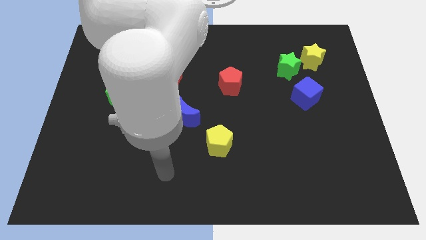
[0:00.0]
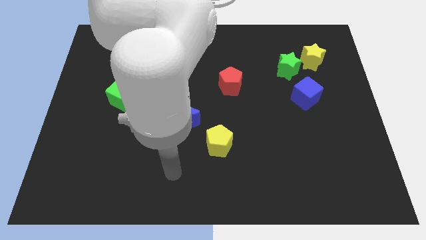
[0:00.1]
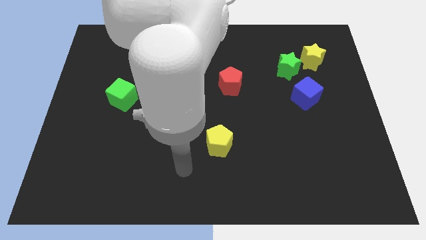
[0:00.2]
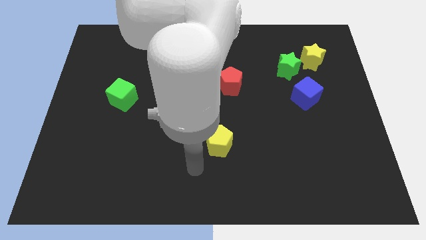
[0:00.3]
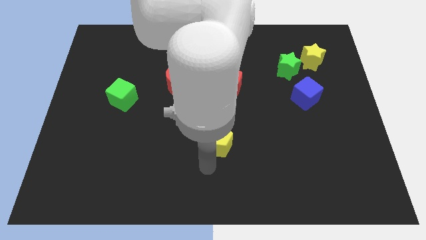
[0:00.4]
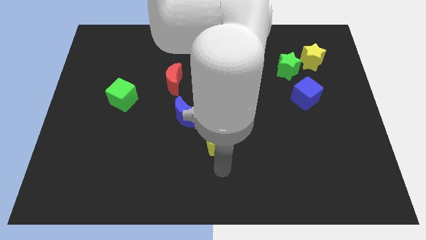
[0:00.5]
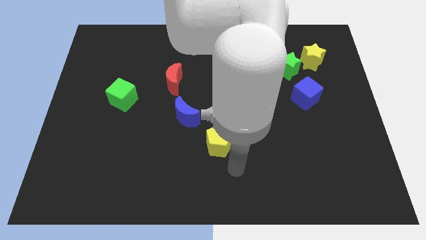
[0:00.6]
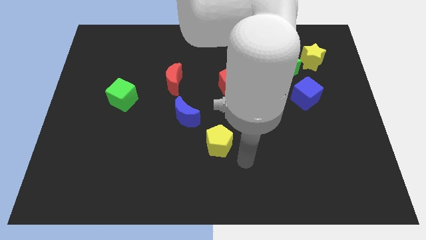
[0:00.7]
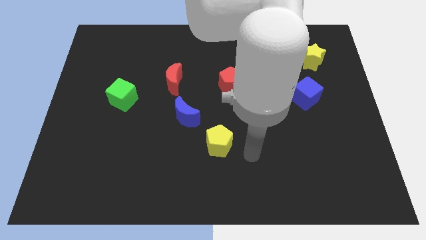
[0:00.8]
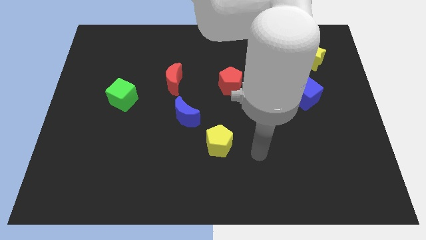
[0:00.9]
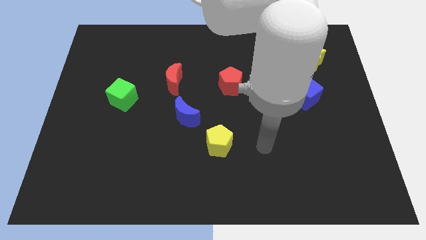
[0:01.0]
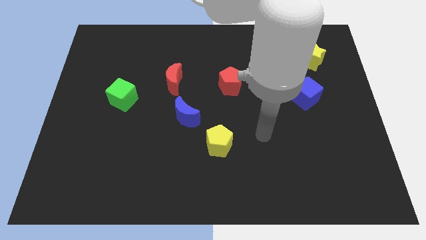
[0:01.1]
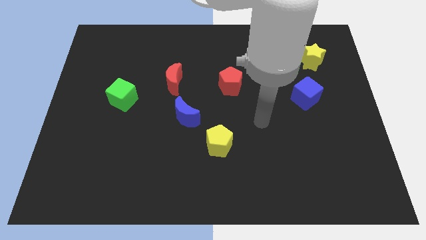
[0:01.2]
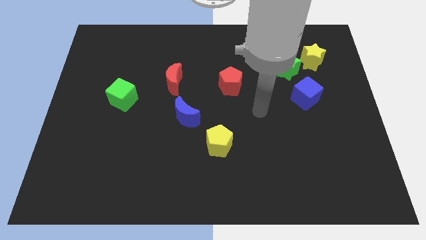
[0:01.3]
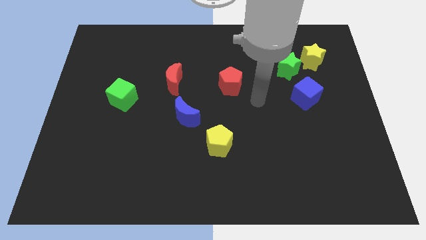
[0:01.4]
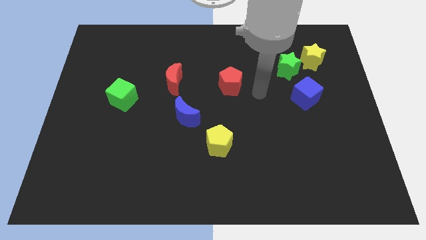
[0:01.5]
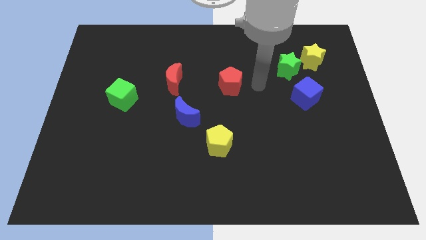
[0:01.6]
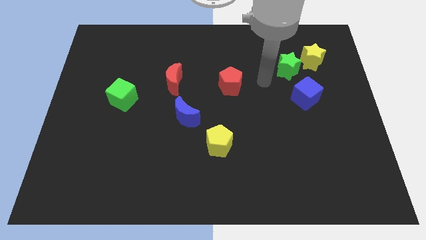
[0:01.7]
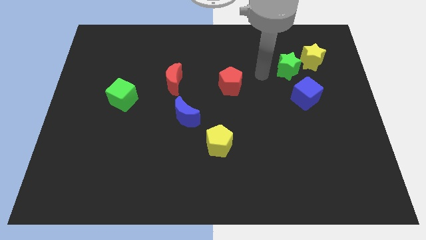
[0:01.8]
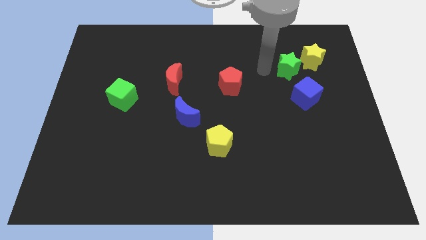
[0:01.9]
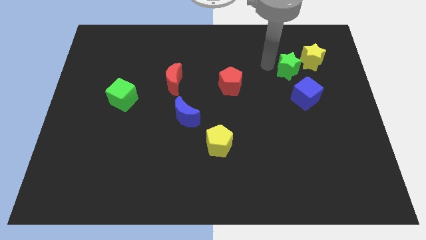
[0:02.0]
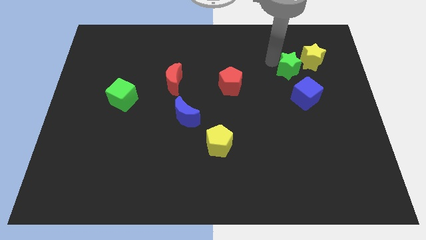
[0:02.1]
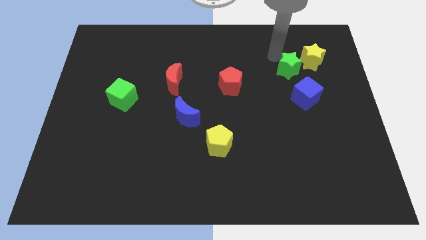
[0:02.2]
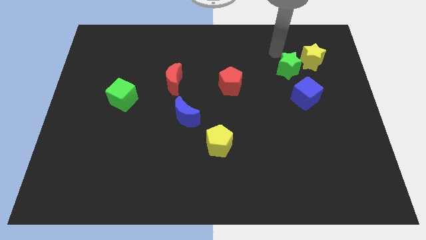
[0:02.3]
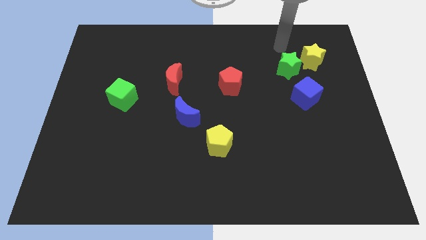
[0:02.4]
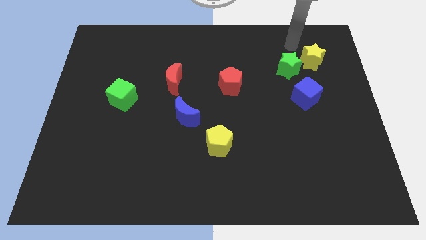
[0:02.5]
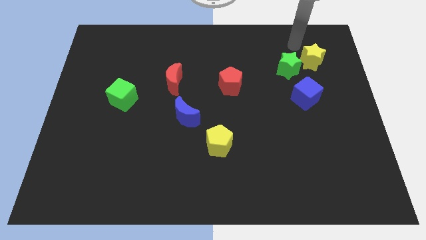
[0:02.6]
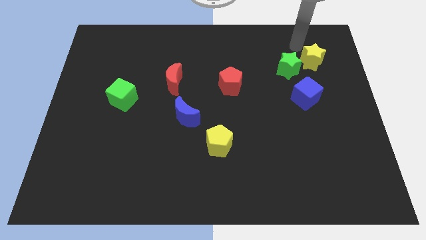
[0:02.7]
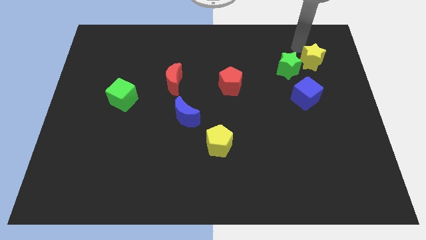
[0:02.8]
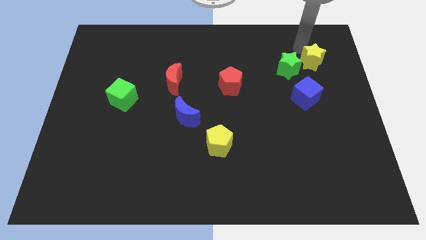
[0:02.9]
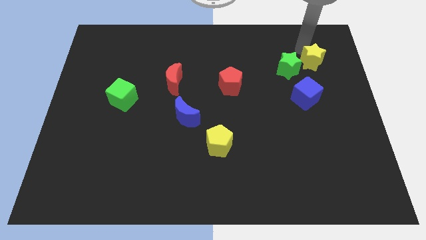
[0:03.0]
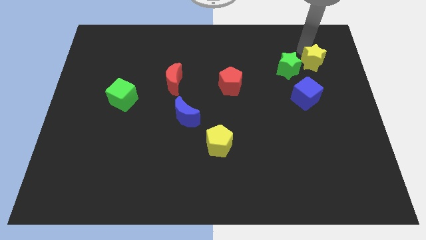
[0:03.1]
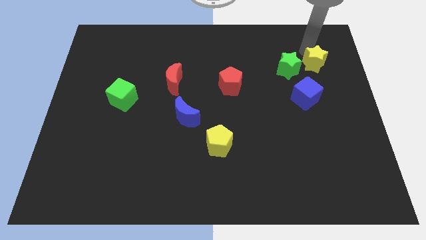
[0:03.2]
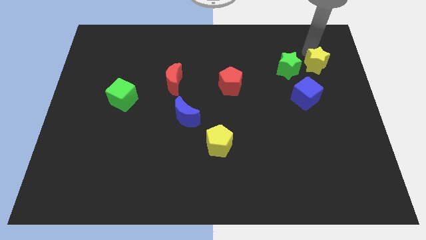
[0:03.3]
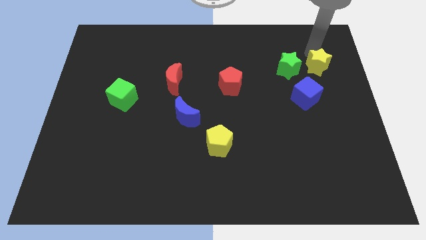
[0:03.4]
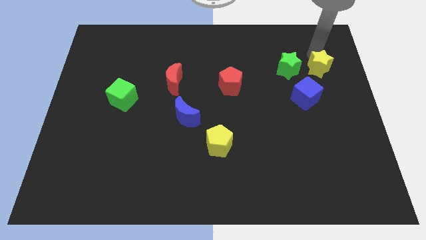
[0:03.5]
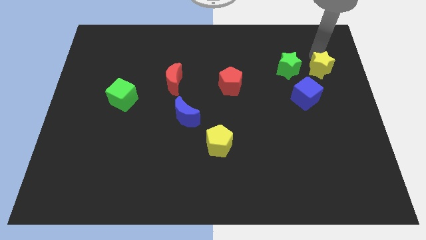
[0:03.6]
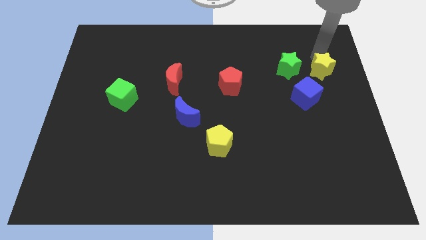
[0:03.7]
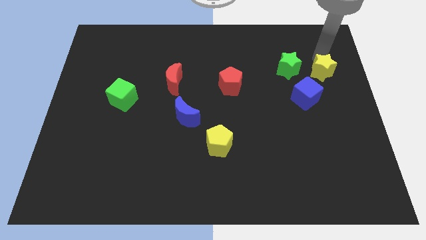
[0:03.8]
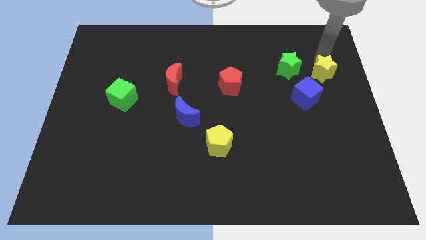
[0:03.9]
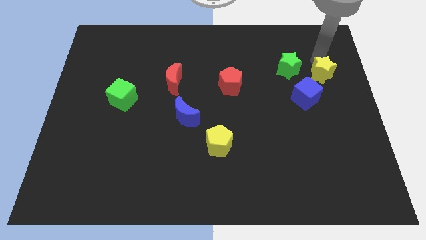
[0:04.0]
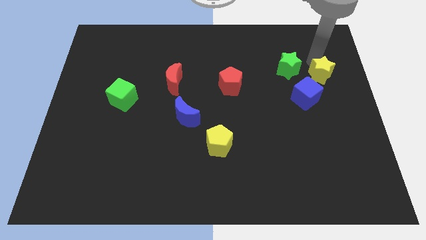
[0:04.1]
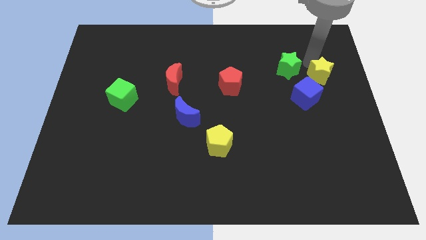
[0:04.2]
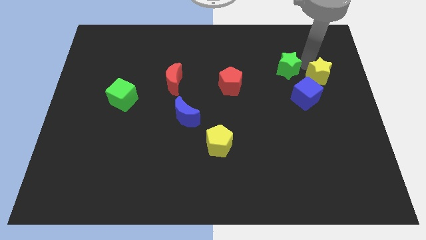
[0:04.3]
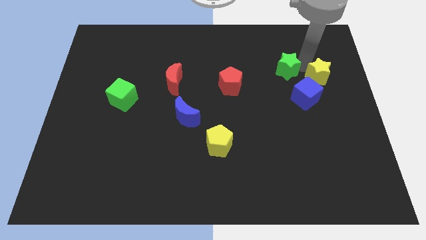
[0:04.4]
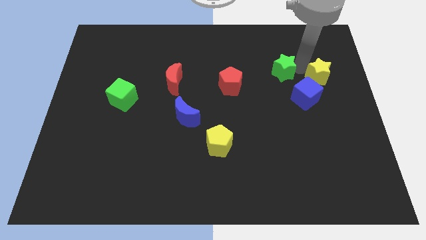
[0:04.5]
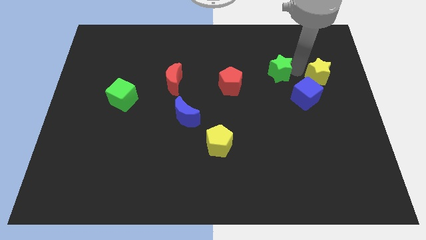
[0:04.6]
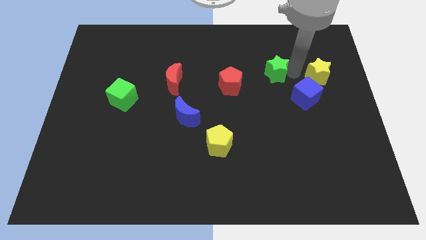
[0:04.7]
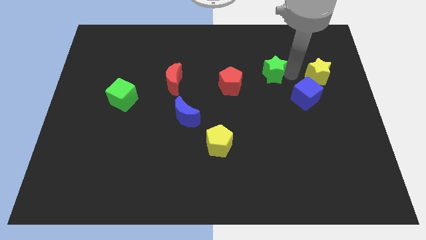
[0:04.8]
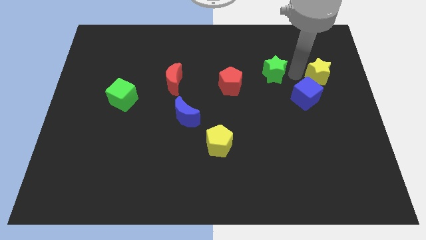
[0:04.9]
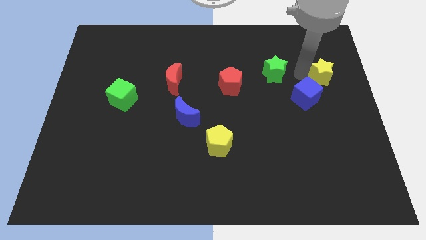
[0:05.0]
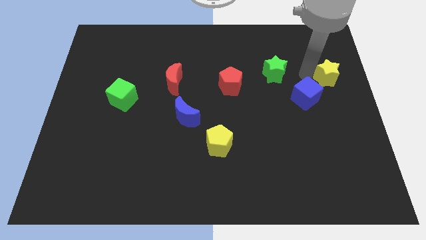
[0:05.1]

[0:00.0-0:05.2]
move the yellow star to the center right

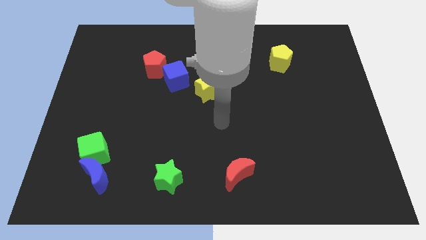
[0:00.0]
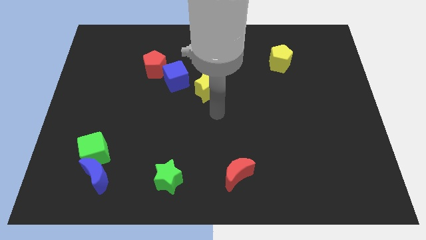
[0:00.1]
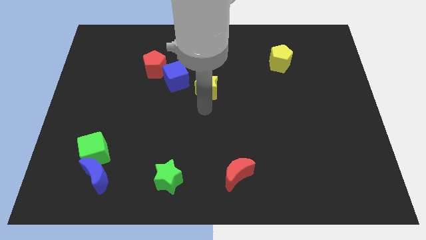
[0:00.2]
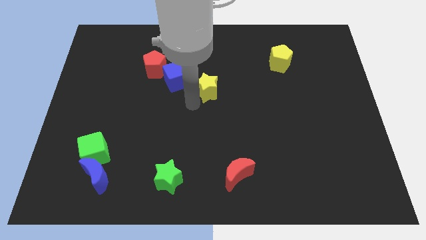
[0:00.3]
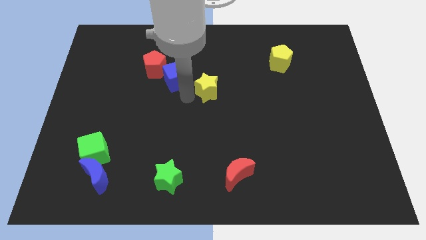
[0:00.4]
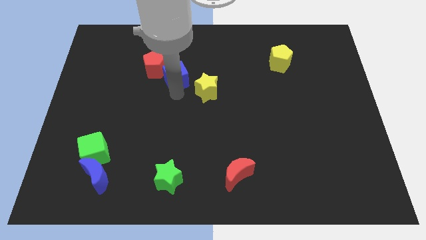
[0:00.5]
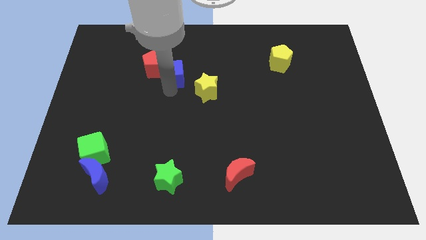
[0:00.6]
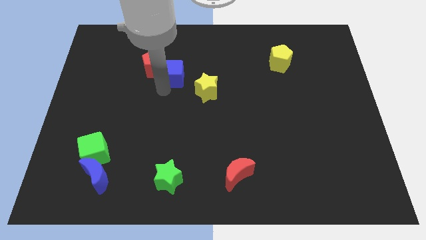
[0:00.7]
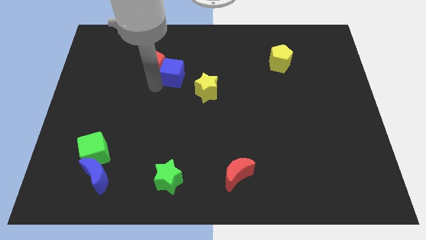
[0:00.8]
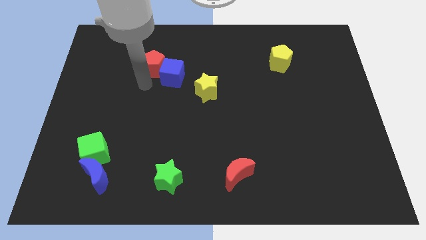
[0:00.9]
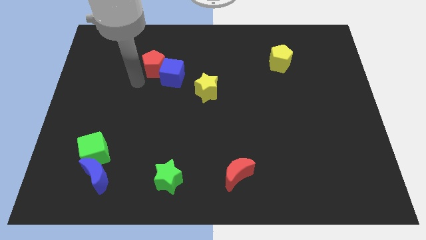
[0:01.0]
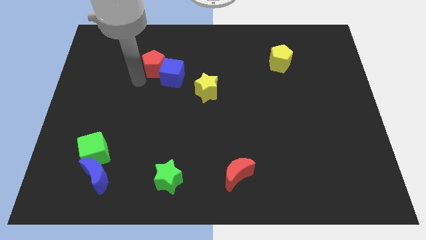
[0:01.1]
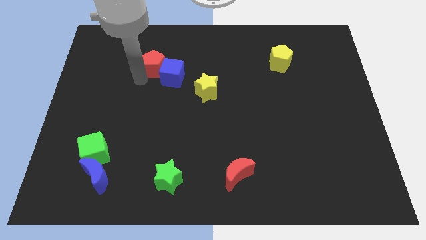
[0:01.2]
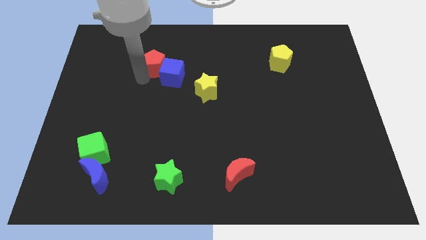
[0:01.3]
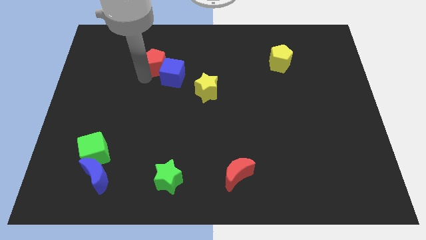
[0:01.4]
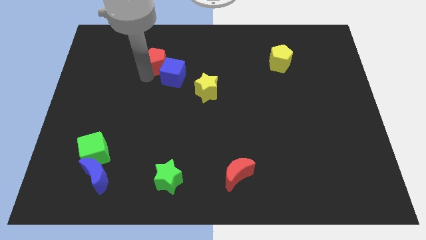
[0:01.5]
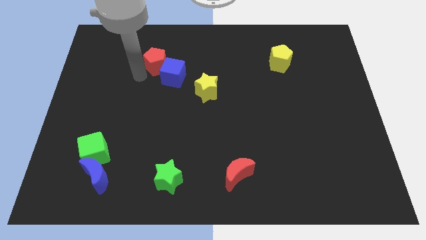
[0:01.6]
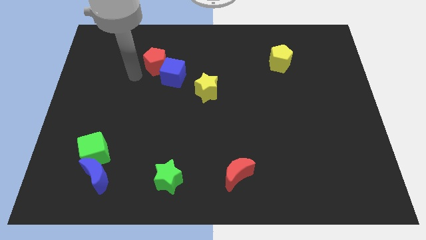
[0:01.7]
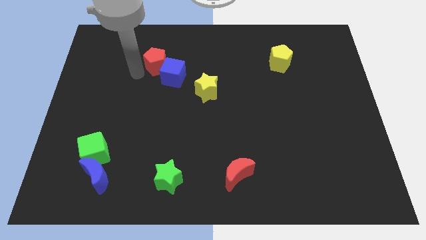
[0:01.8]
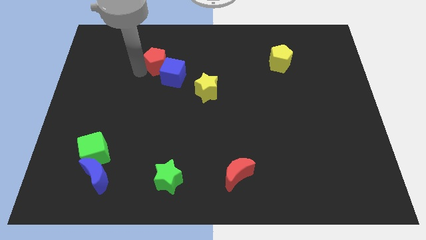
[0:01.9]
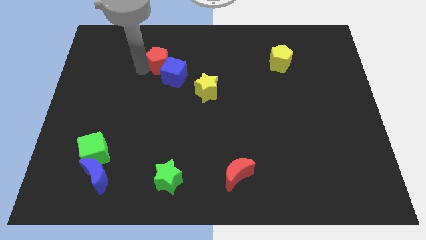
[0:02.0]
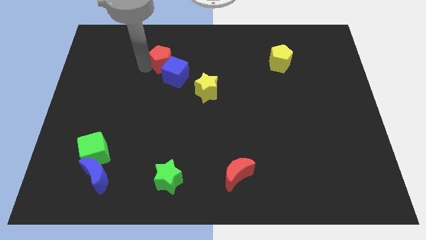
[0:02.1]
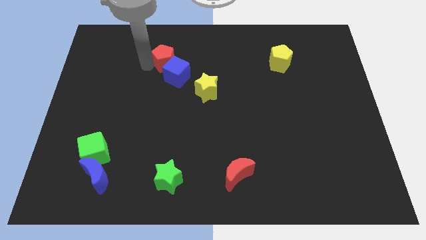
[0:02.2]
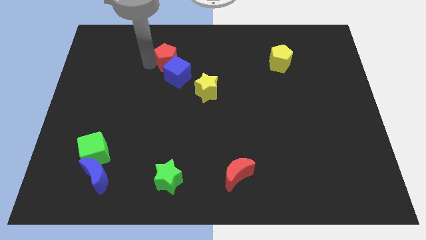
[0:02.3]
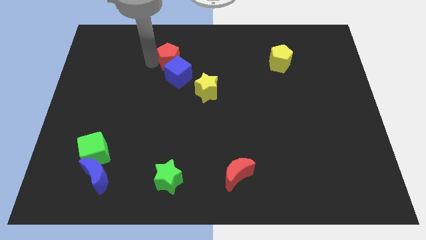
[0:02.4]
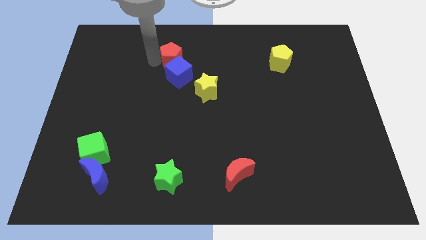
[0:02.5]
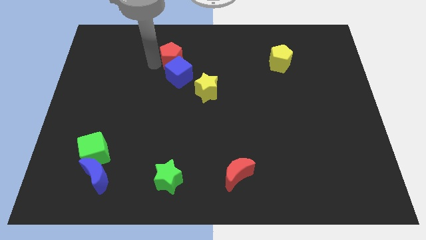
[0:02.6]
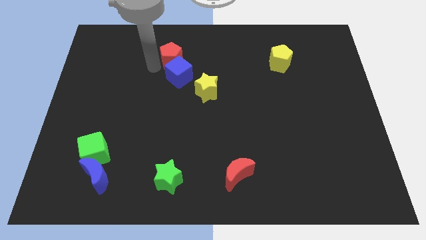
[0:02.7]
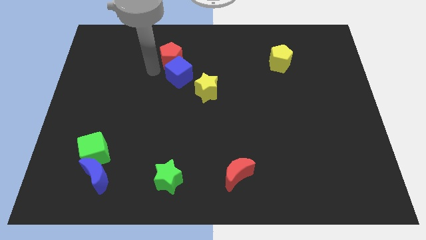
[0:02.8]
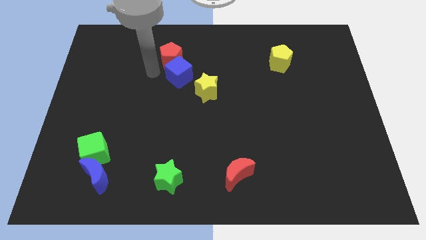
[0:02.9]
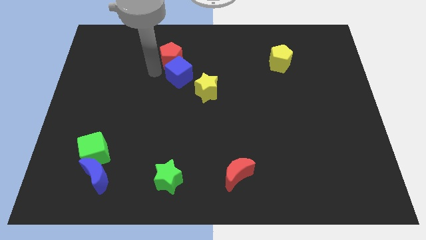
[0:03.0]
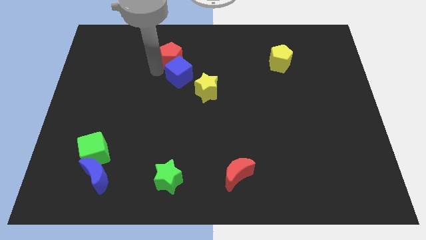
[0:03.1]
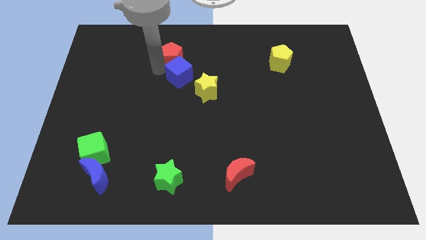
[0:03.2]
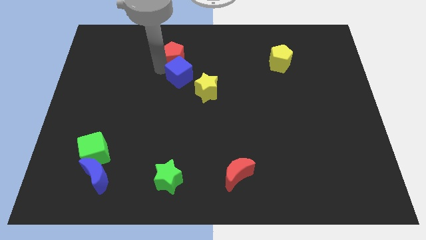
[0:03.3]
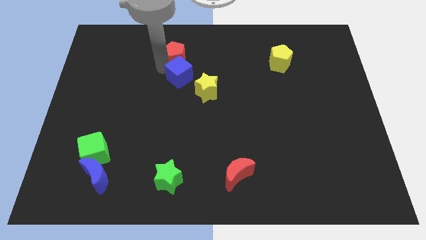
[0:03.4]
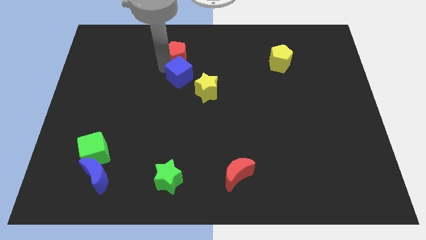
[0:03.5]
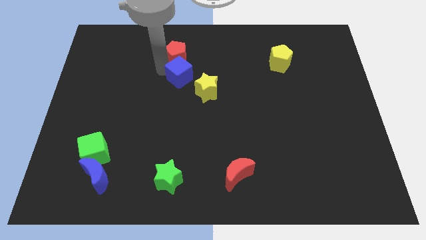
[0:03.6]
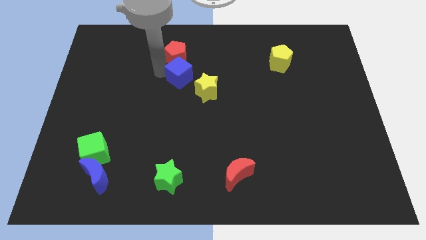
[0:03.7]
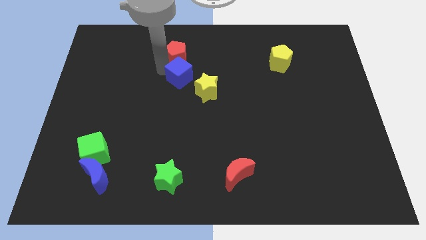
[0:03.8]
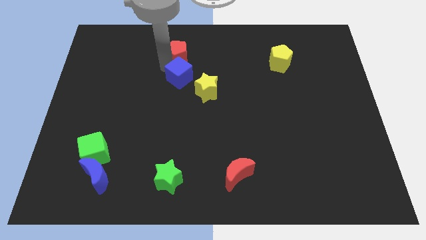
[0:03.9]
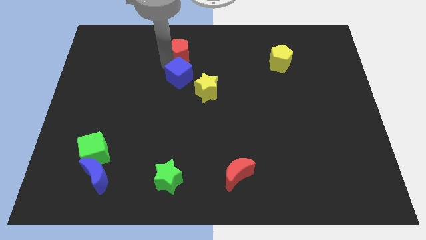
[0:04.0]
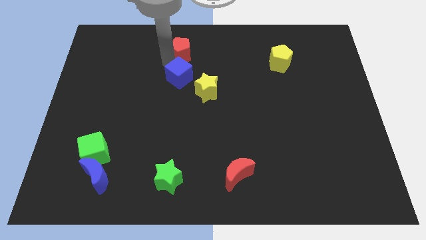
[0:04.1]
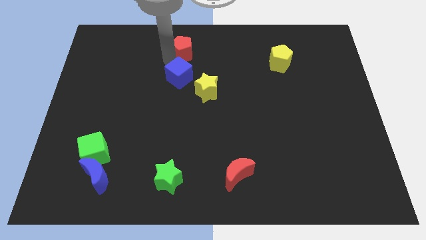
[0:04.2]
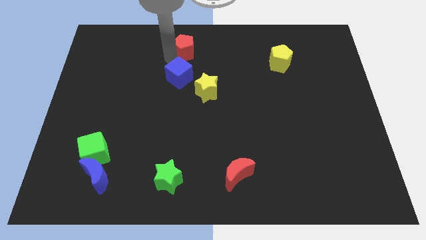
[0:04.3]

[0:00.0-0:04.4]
move the red pentagon to the top side
